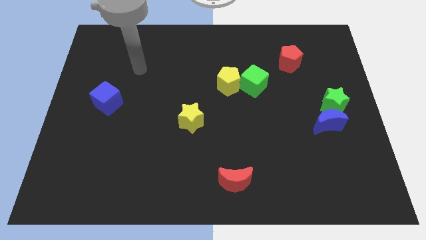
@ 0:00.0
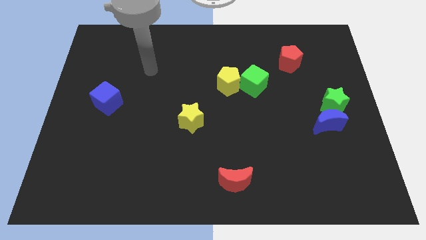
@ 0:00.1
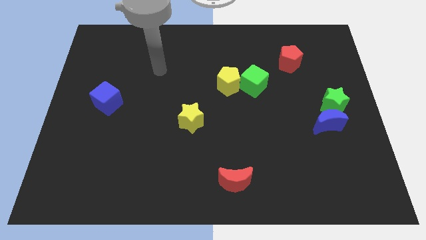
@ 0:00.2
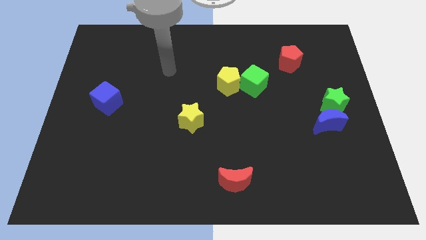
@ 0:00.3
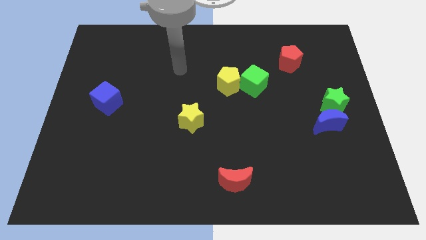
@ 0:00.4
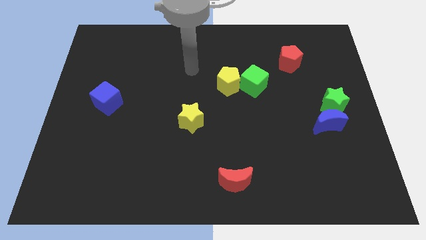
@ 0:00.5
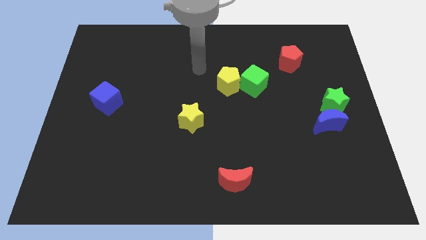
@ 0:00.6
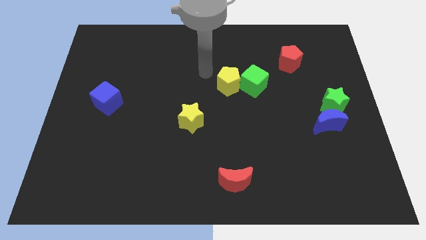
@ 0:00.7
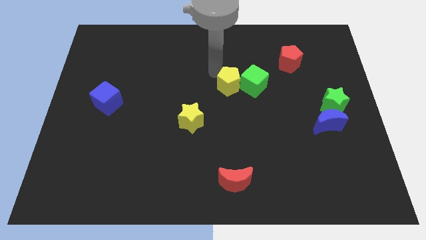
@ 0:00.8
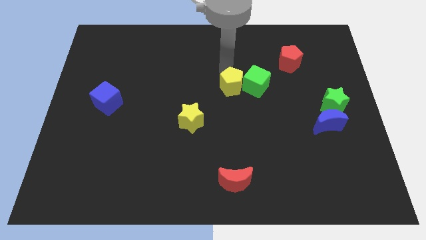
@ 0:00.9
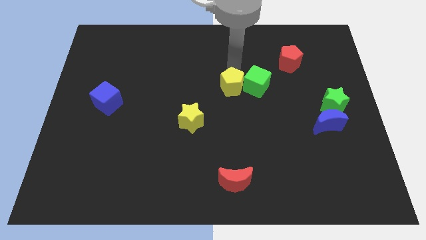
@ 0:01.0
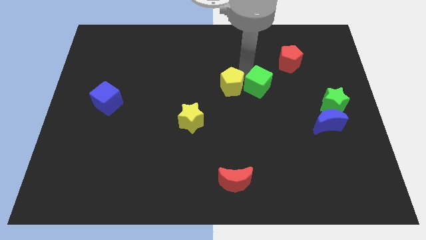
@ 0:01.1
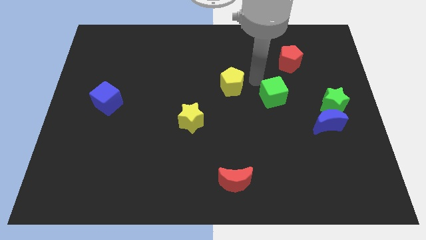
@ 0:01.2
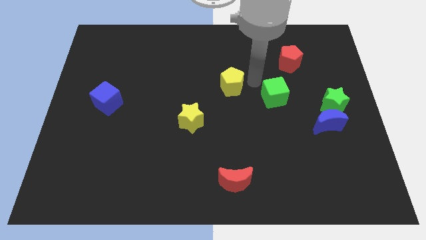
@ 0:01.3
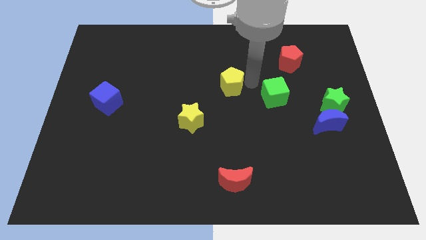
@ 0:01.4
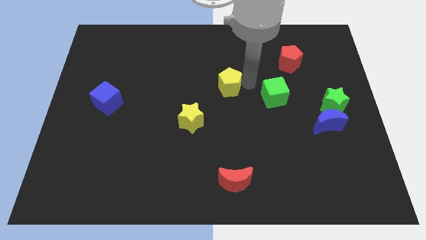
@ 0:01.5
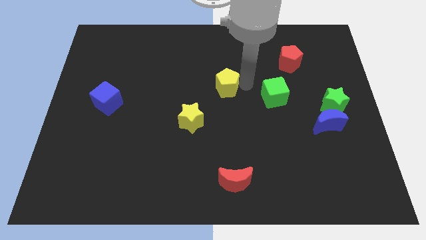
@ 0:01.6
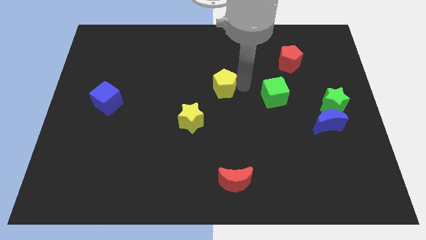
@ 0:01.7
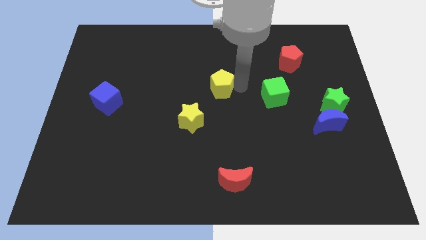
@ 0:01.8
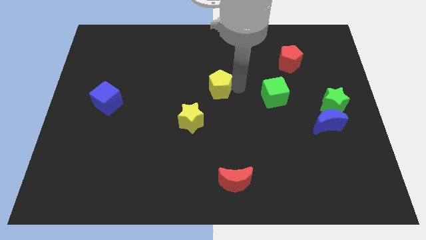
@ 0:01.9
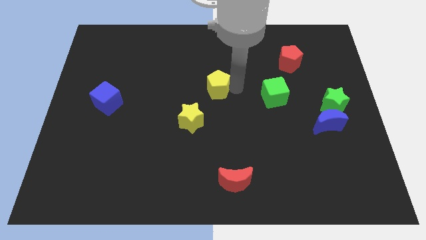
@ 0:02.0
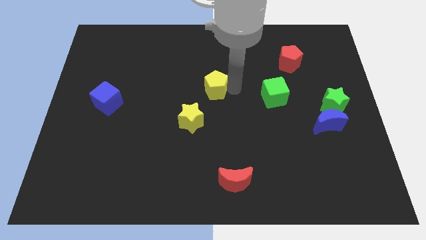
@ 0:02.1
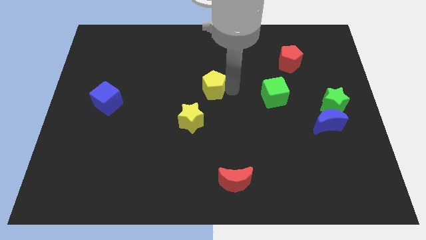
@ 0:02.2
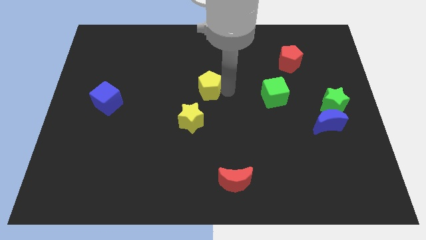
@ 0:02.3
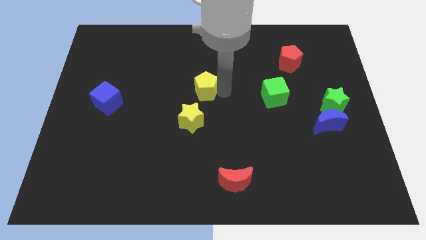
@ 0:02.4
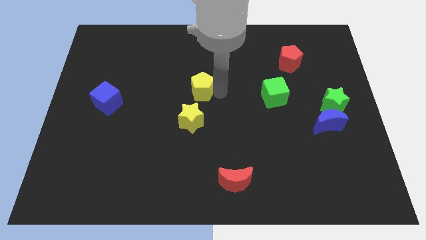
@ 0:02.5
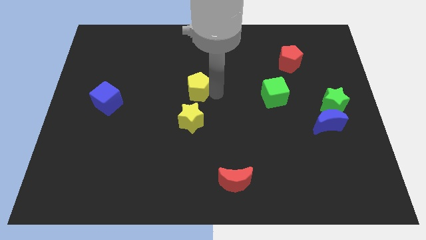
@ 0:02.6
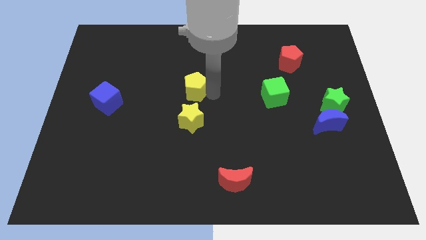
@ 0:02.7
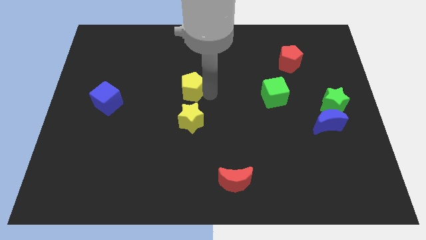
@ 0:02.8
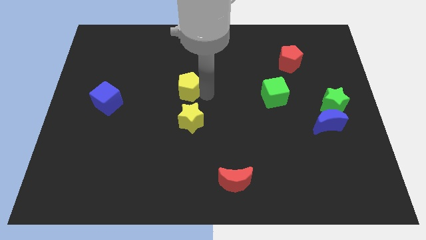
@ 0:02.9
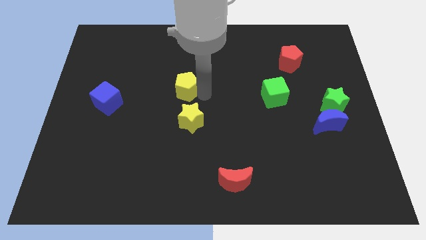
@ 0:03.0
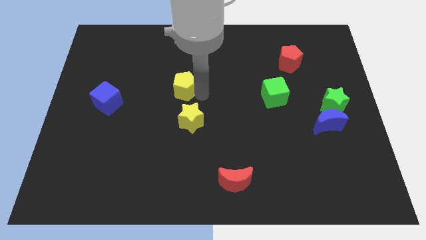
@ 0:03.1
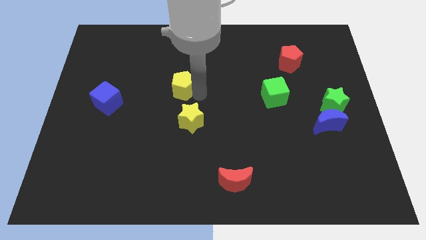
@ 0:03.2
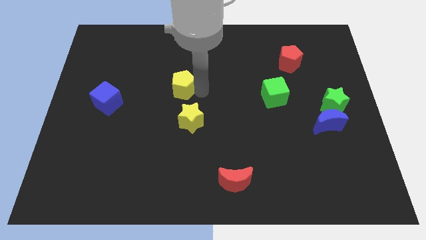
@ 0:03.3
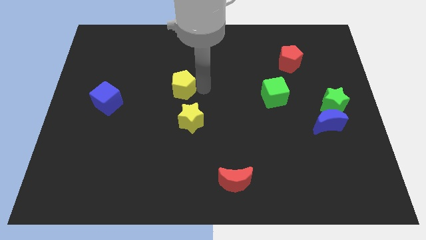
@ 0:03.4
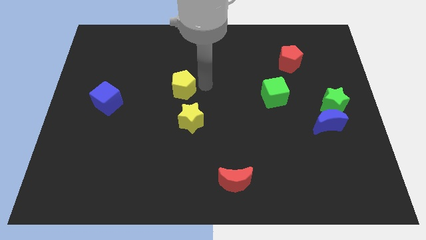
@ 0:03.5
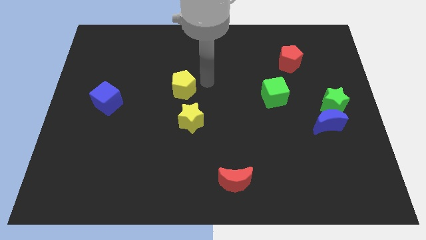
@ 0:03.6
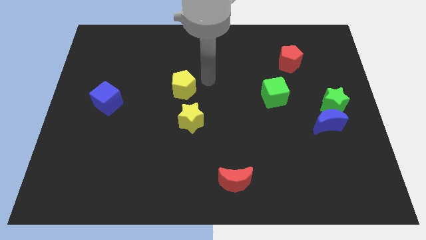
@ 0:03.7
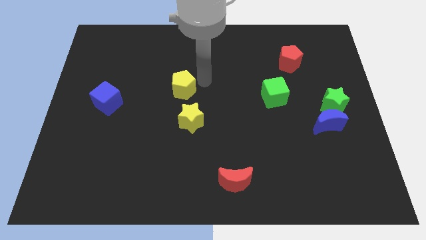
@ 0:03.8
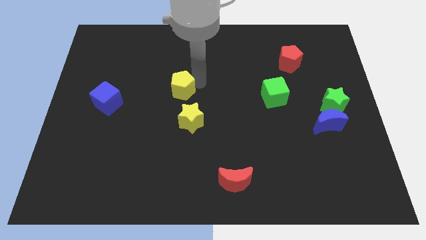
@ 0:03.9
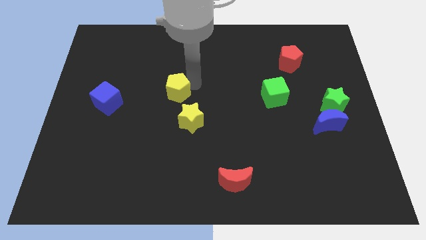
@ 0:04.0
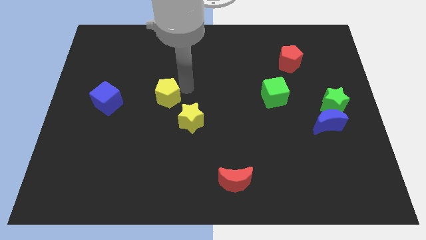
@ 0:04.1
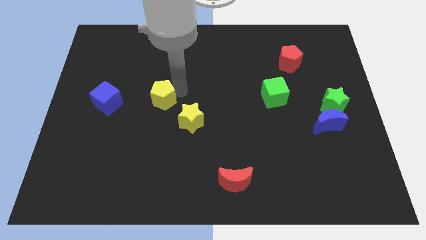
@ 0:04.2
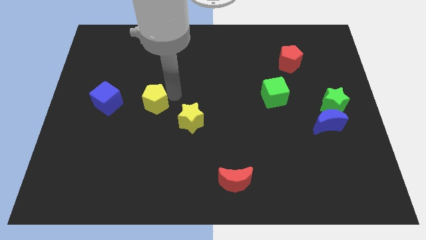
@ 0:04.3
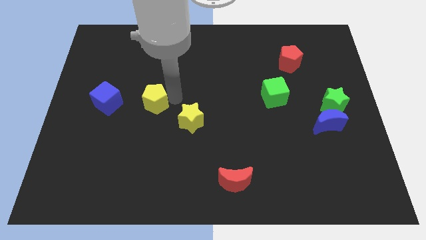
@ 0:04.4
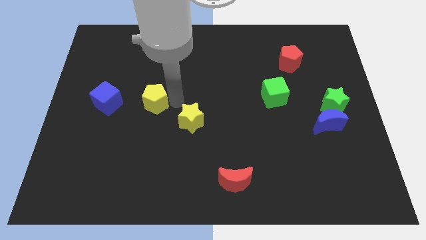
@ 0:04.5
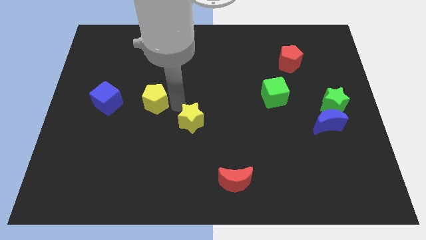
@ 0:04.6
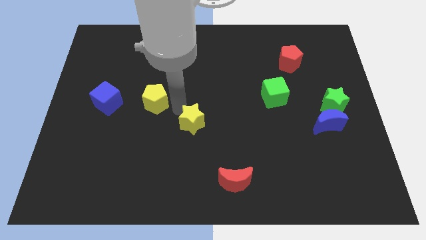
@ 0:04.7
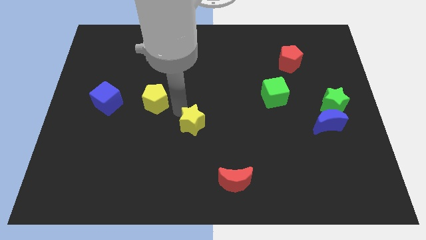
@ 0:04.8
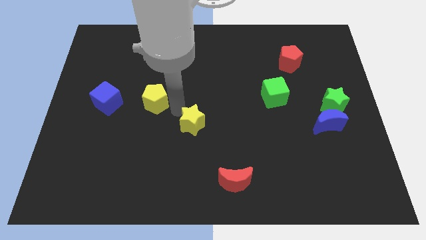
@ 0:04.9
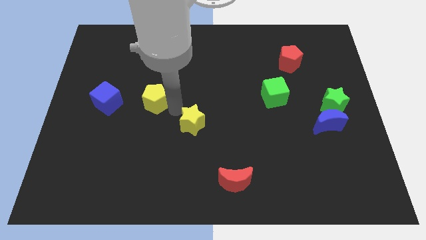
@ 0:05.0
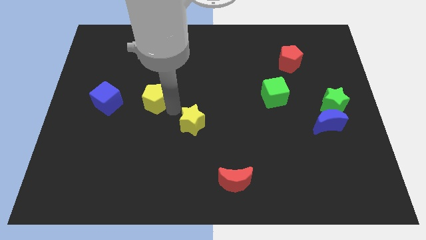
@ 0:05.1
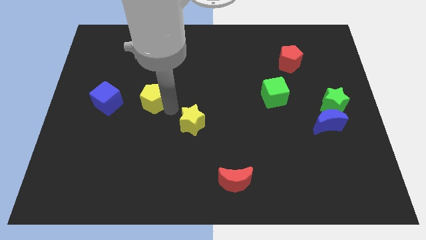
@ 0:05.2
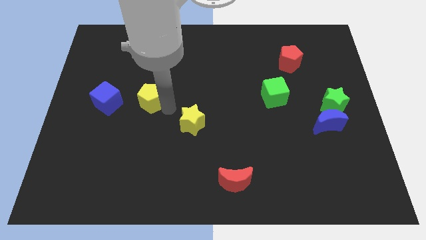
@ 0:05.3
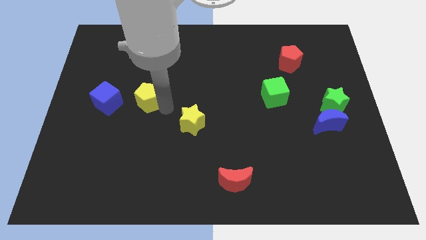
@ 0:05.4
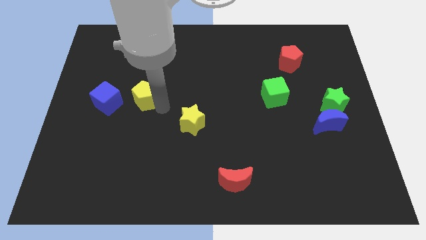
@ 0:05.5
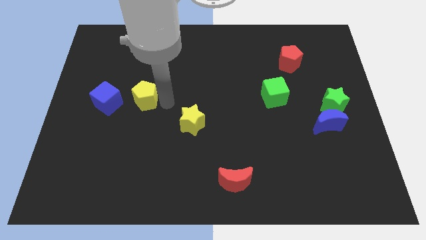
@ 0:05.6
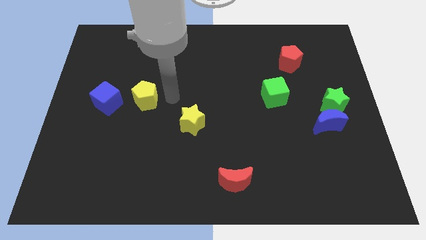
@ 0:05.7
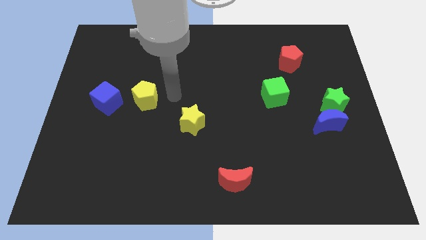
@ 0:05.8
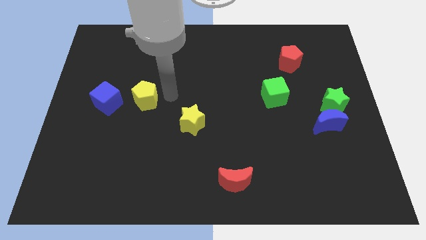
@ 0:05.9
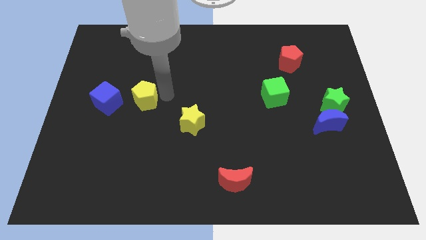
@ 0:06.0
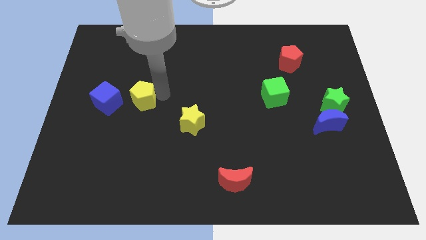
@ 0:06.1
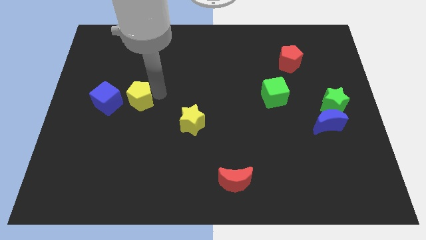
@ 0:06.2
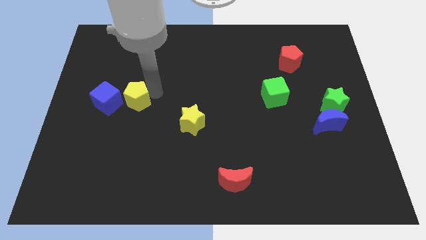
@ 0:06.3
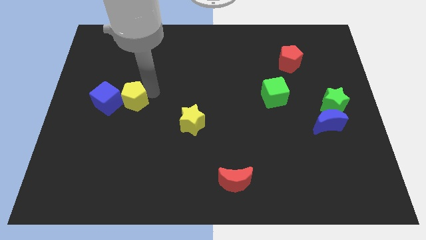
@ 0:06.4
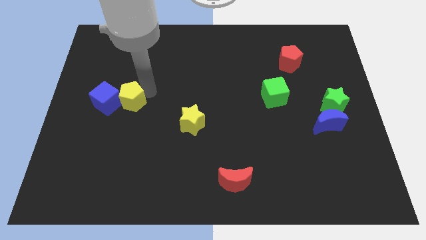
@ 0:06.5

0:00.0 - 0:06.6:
push the yellow pentagon next to the blue cube

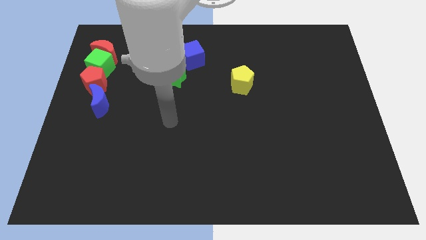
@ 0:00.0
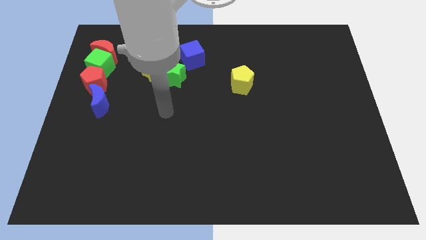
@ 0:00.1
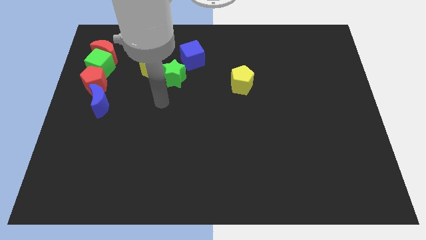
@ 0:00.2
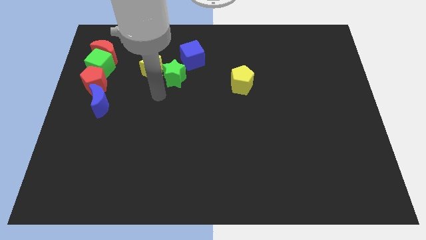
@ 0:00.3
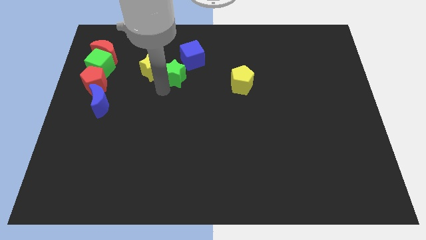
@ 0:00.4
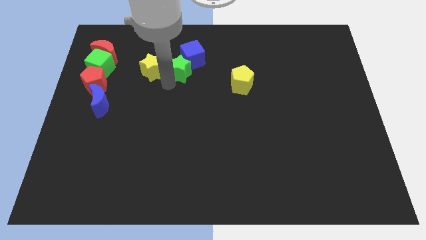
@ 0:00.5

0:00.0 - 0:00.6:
slide the green star to the blue cube
